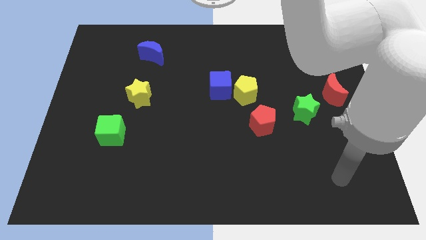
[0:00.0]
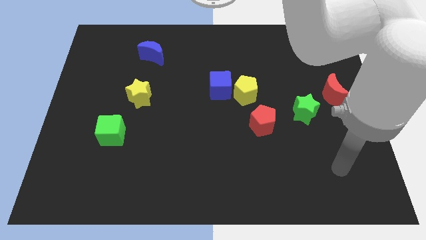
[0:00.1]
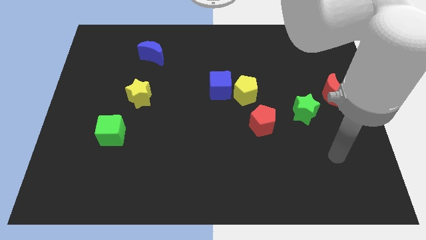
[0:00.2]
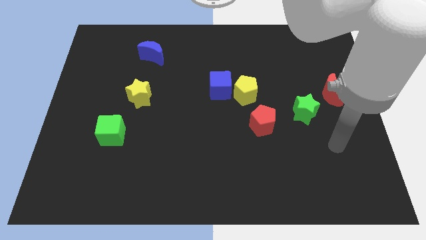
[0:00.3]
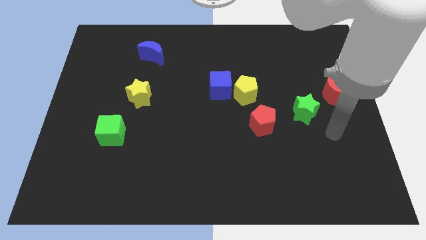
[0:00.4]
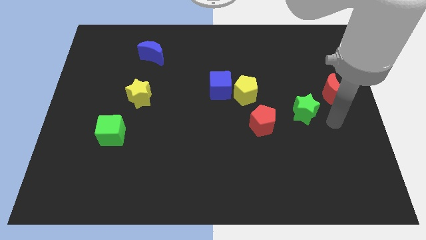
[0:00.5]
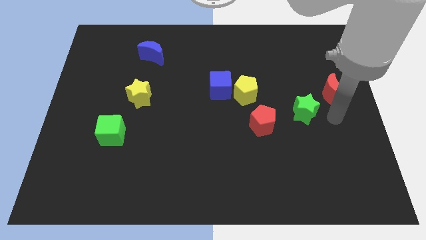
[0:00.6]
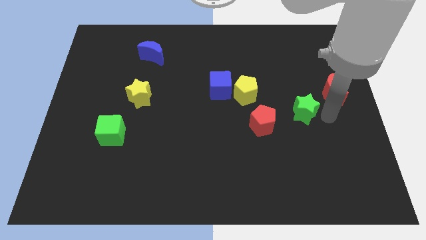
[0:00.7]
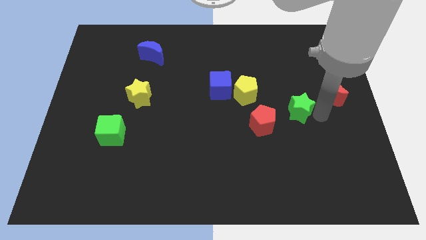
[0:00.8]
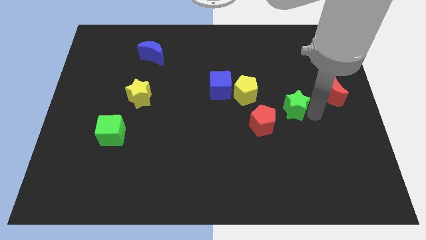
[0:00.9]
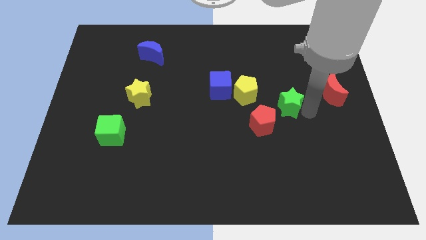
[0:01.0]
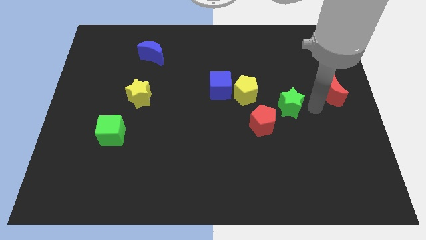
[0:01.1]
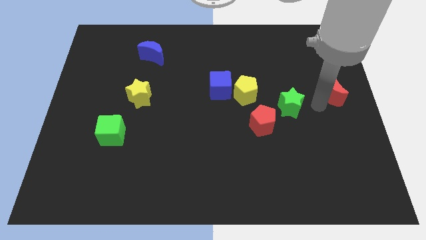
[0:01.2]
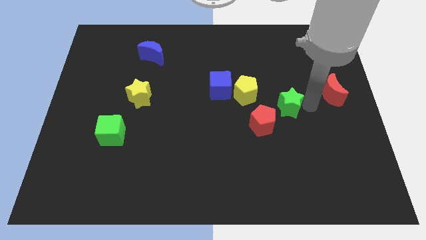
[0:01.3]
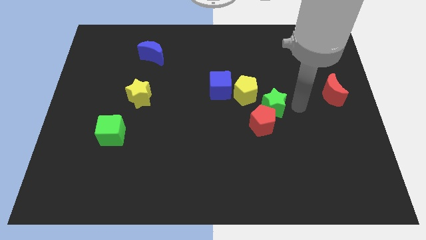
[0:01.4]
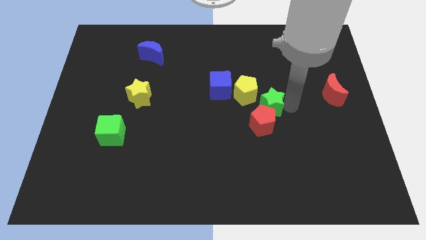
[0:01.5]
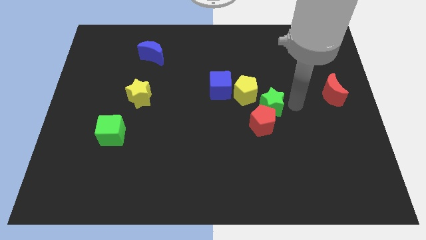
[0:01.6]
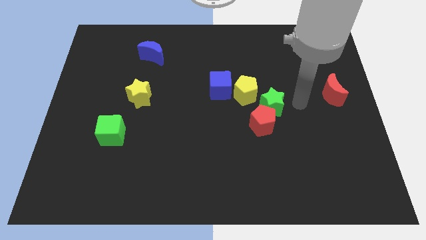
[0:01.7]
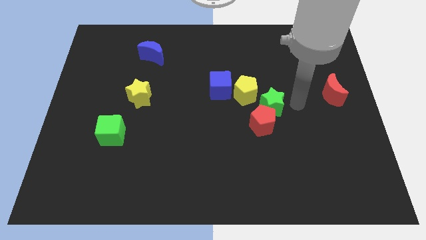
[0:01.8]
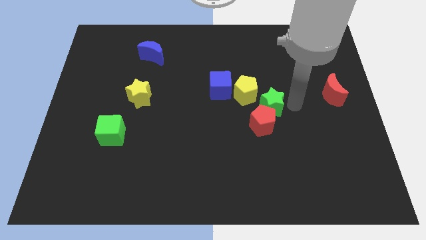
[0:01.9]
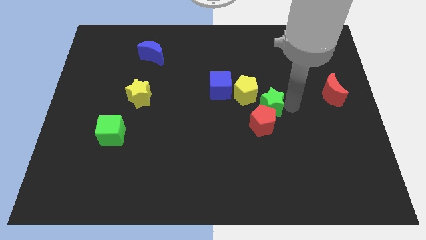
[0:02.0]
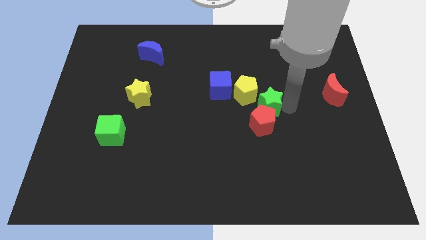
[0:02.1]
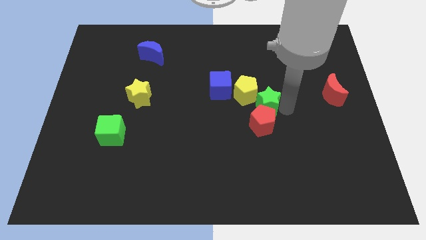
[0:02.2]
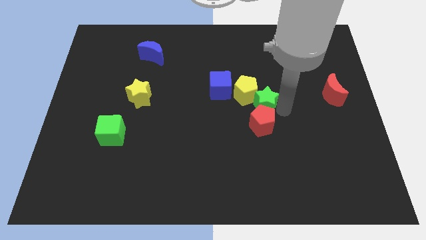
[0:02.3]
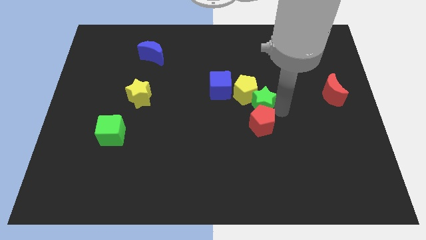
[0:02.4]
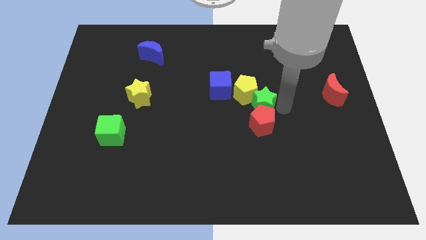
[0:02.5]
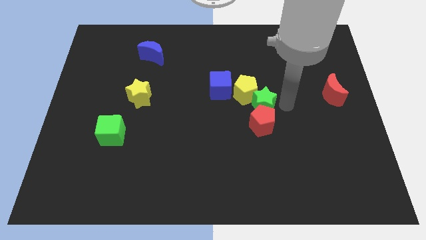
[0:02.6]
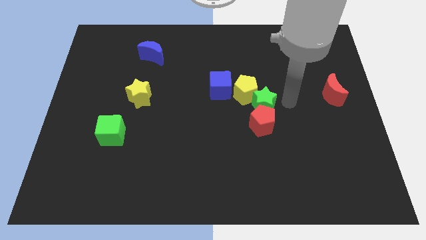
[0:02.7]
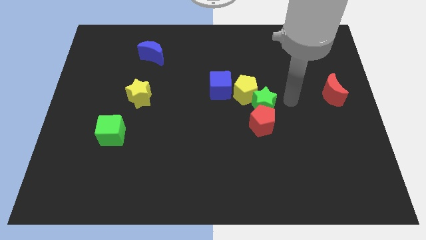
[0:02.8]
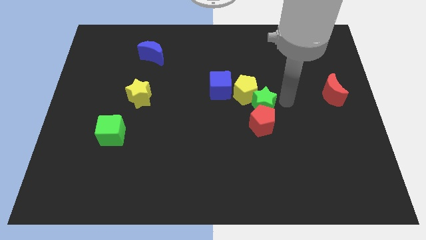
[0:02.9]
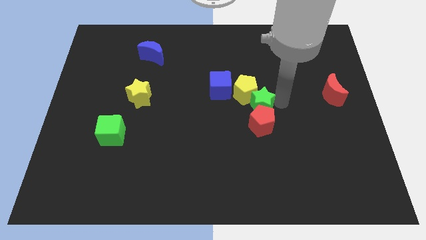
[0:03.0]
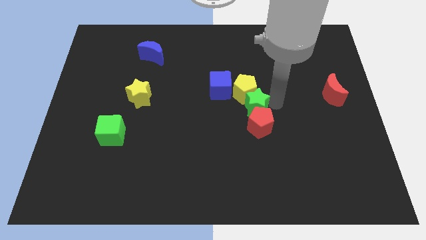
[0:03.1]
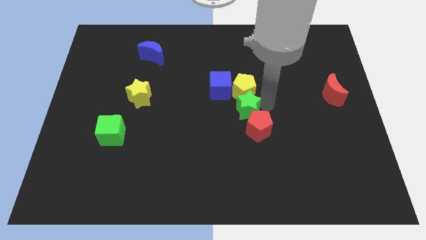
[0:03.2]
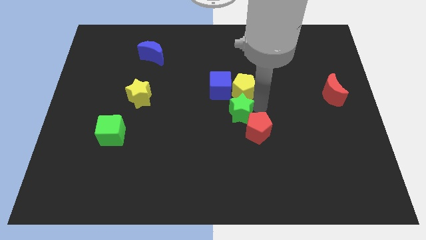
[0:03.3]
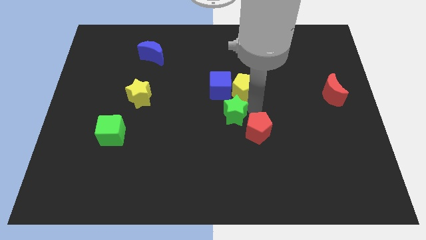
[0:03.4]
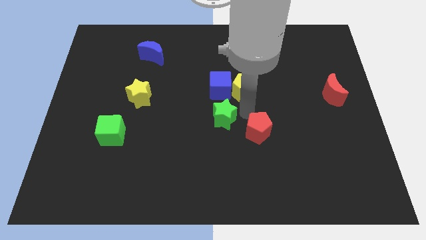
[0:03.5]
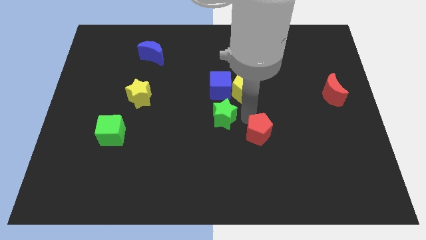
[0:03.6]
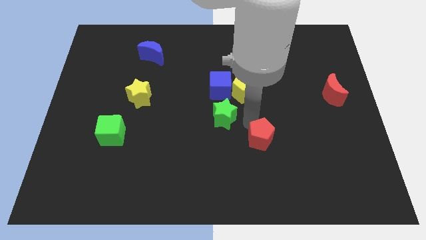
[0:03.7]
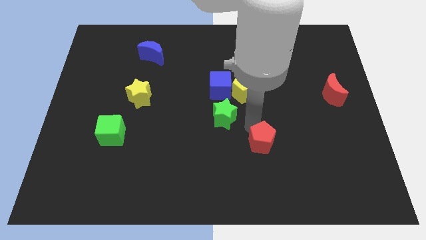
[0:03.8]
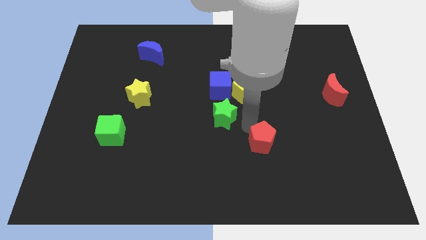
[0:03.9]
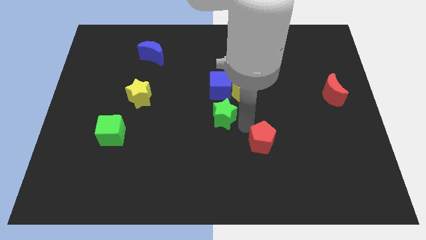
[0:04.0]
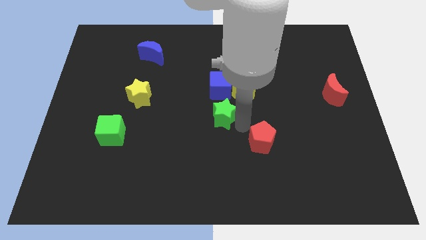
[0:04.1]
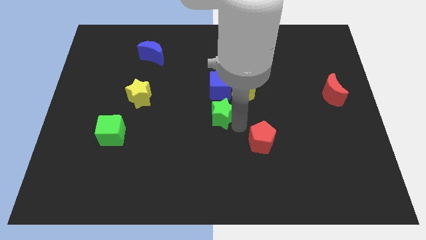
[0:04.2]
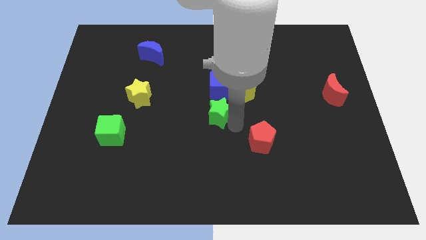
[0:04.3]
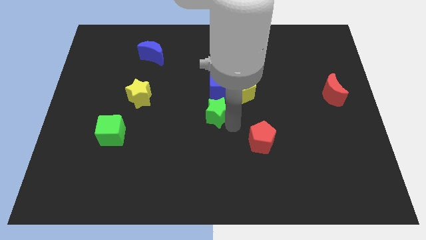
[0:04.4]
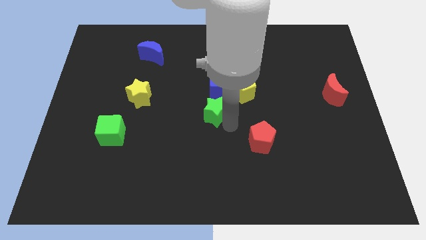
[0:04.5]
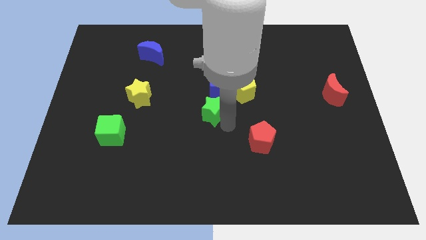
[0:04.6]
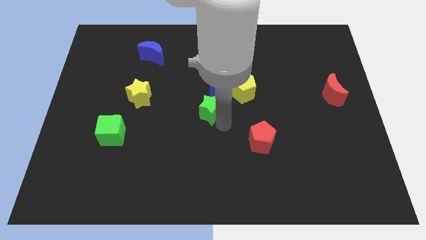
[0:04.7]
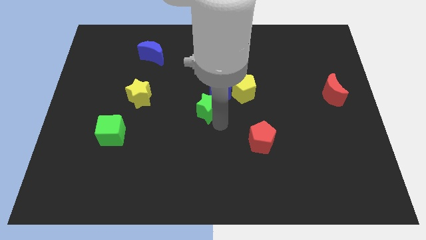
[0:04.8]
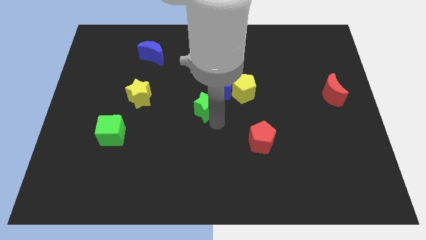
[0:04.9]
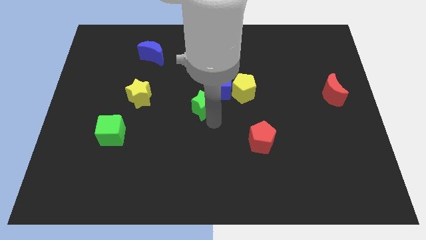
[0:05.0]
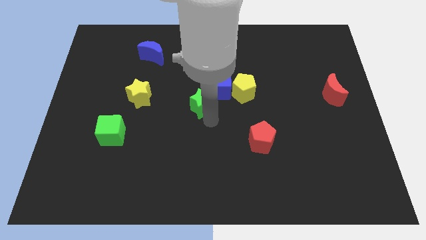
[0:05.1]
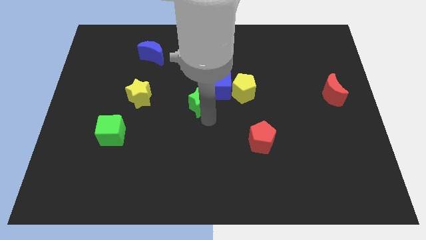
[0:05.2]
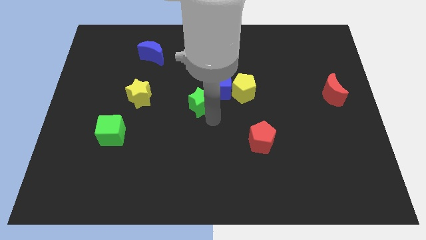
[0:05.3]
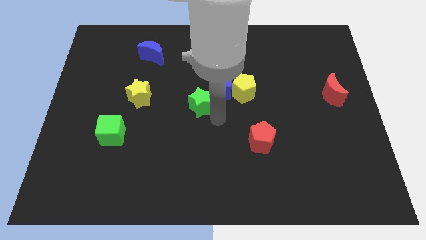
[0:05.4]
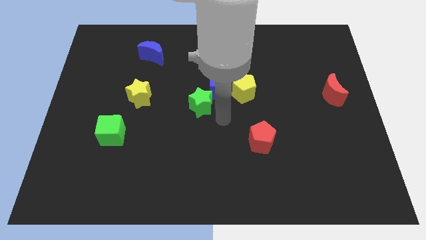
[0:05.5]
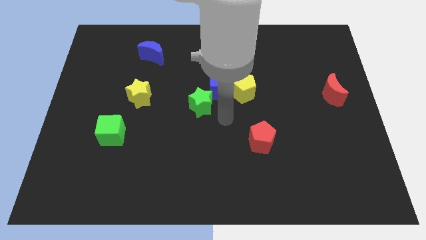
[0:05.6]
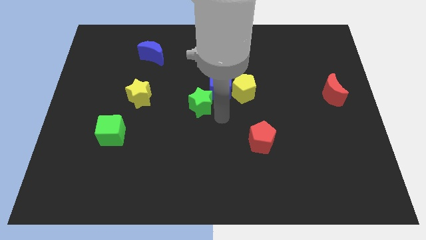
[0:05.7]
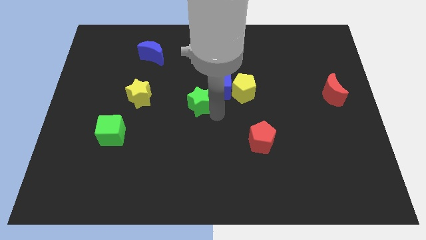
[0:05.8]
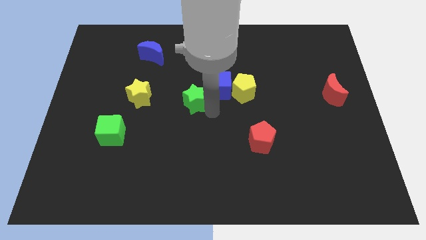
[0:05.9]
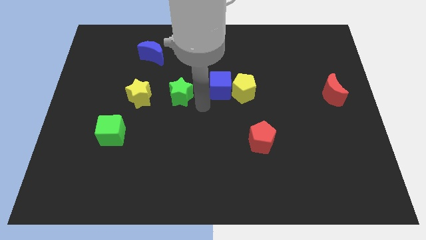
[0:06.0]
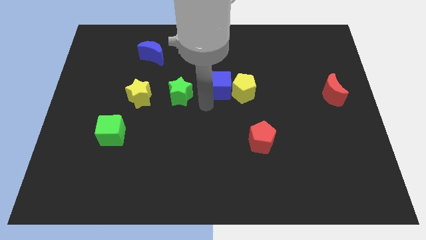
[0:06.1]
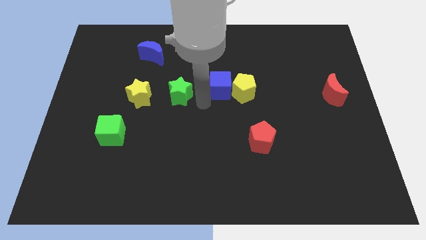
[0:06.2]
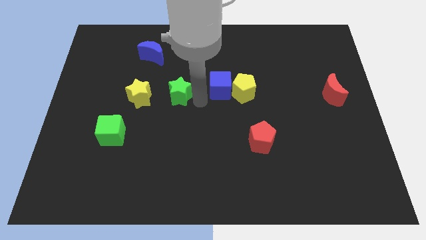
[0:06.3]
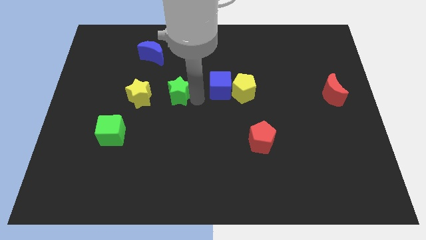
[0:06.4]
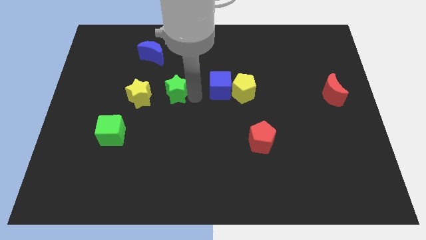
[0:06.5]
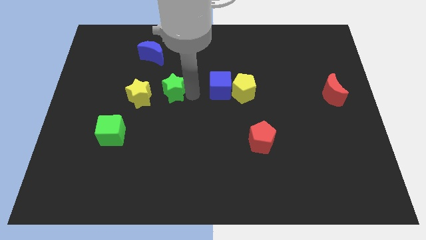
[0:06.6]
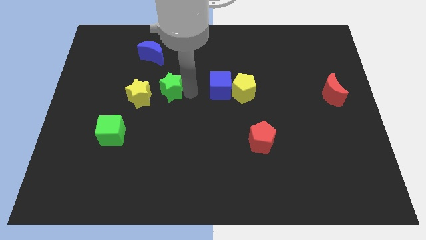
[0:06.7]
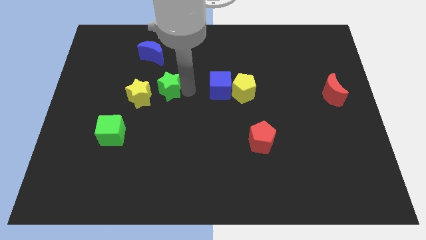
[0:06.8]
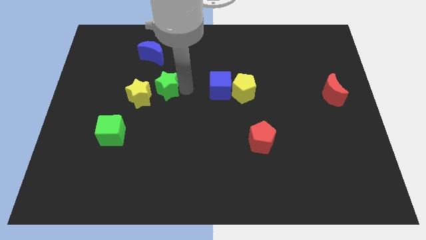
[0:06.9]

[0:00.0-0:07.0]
slide the green star to the bottom of the blue moon
